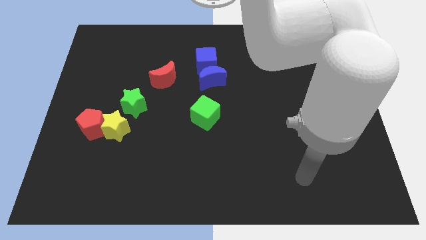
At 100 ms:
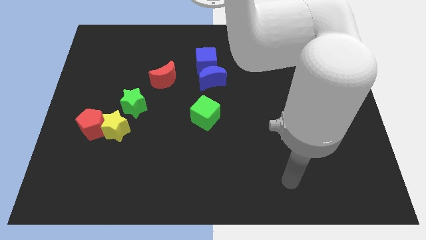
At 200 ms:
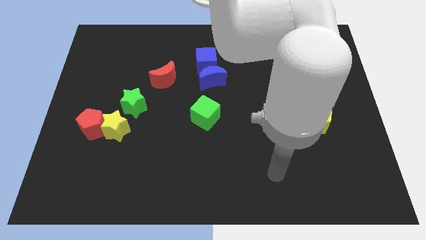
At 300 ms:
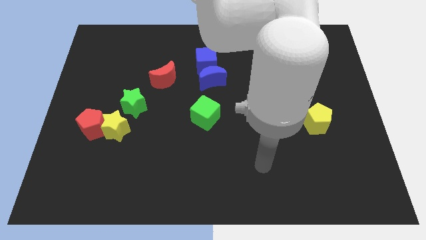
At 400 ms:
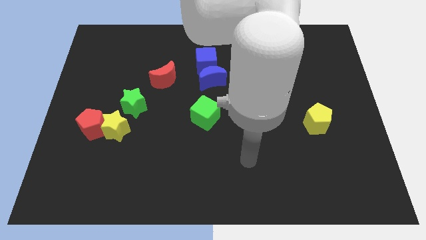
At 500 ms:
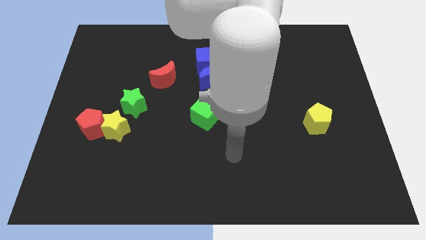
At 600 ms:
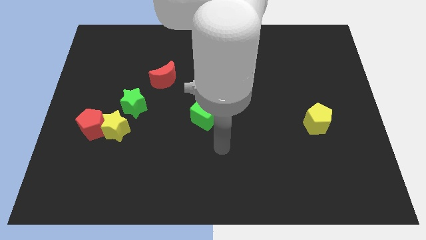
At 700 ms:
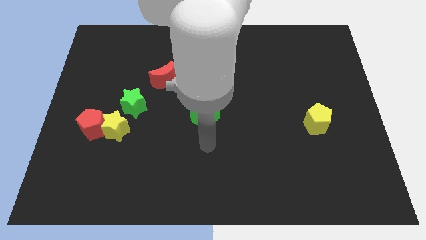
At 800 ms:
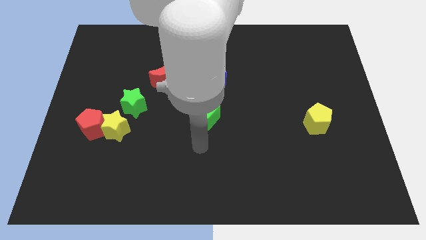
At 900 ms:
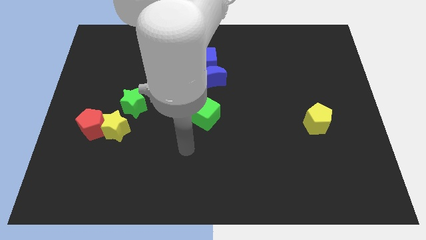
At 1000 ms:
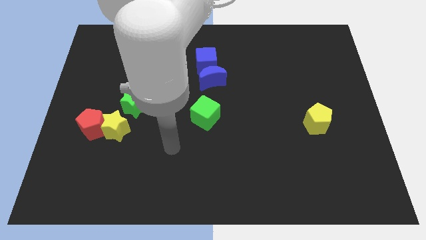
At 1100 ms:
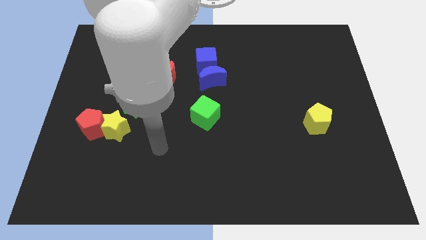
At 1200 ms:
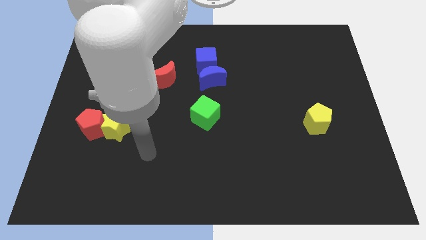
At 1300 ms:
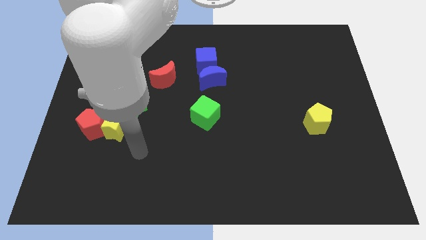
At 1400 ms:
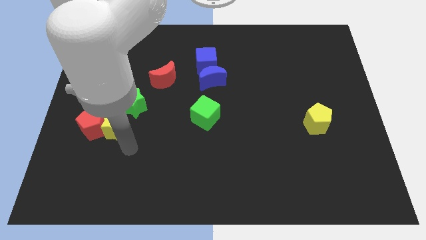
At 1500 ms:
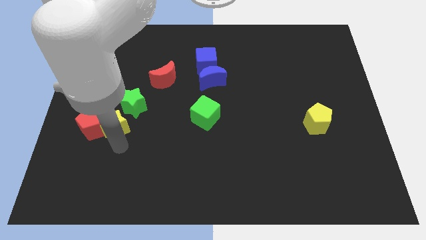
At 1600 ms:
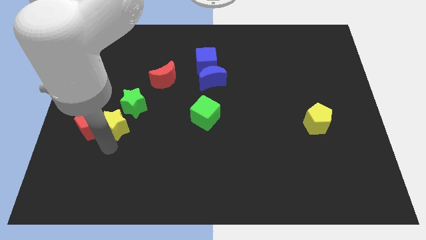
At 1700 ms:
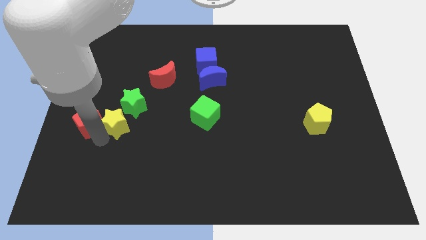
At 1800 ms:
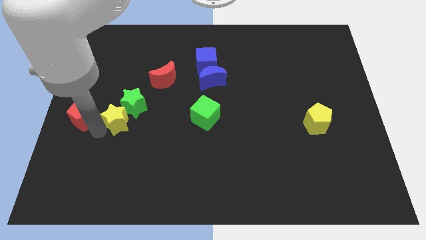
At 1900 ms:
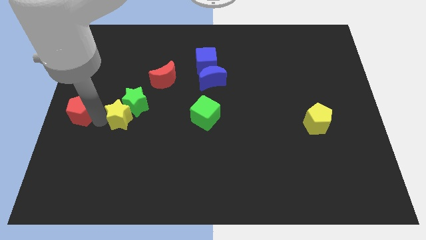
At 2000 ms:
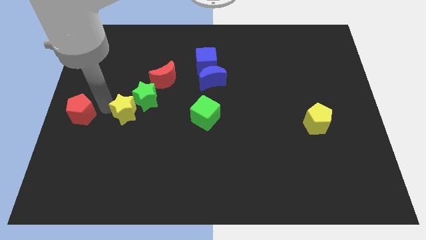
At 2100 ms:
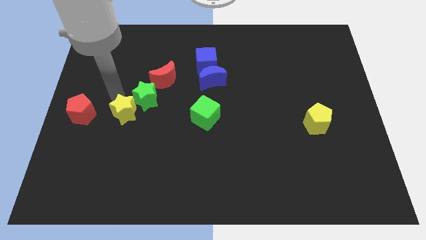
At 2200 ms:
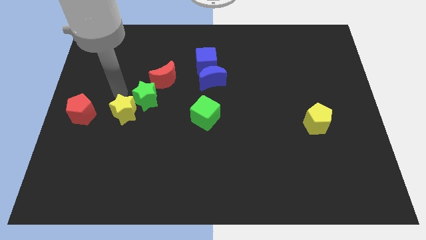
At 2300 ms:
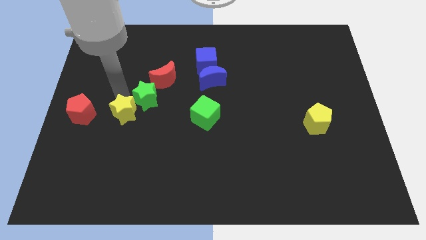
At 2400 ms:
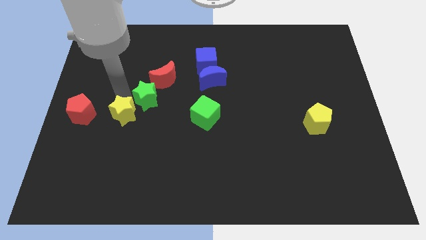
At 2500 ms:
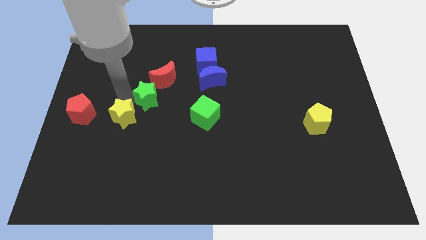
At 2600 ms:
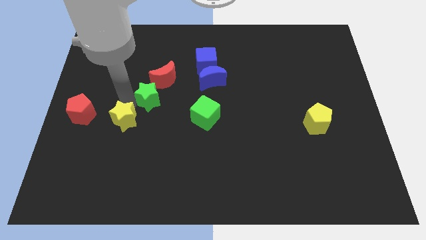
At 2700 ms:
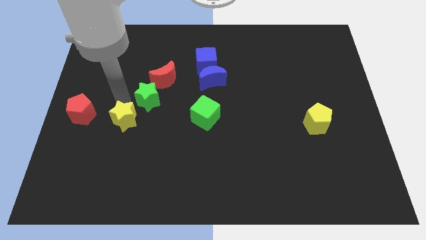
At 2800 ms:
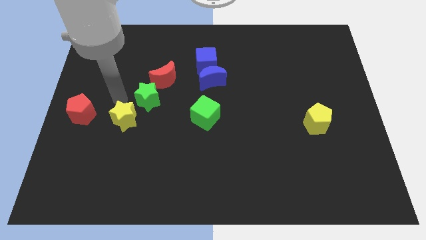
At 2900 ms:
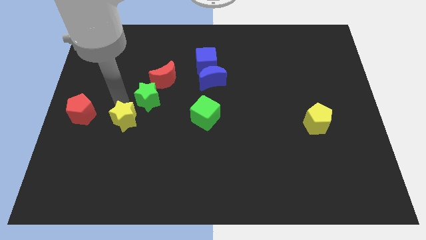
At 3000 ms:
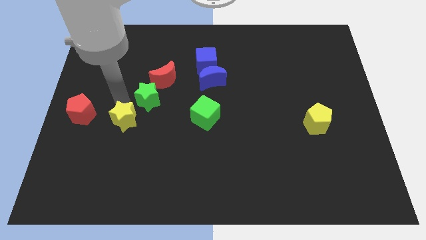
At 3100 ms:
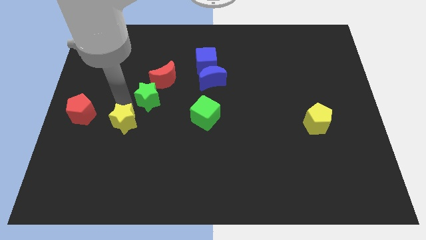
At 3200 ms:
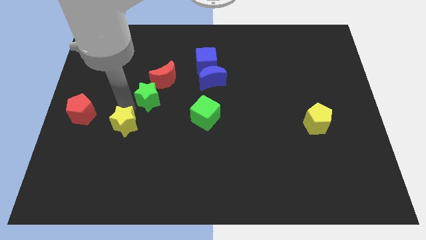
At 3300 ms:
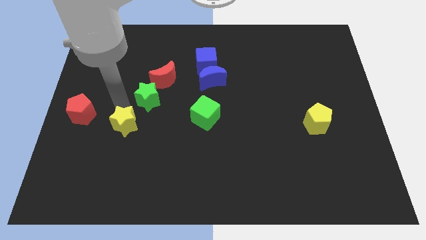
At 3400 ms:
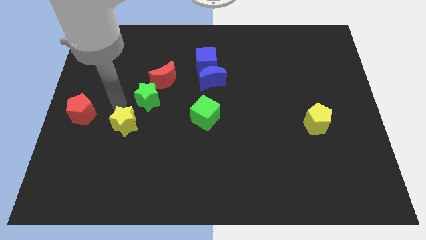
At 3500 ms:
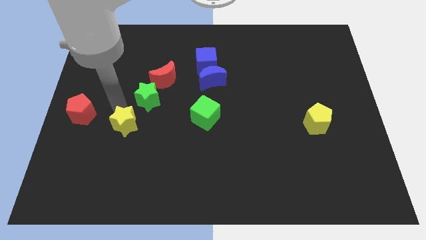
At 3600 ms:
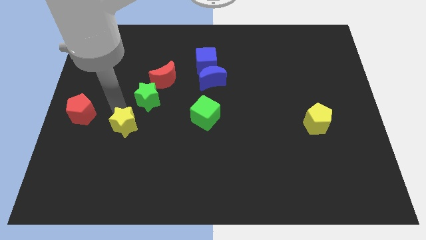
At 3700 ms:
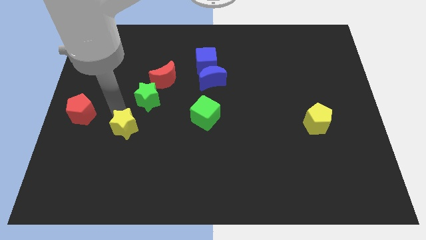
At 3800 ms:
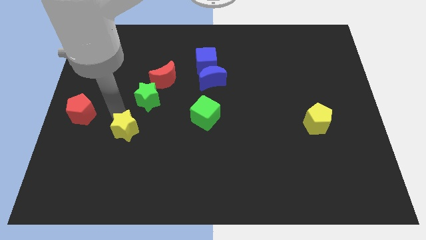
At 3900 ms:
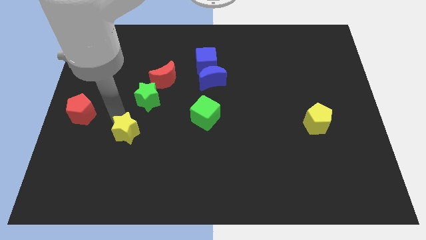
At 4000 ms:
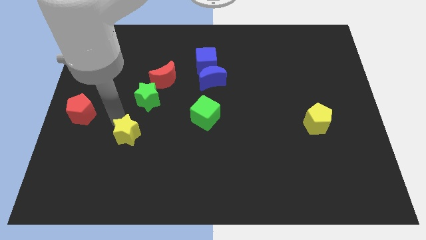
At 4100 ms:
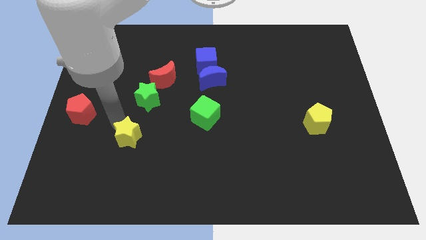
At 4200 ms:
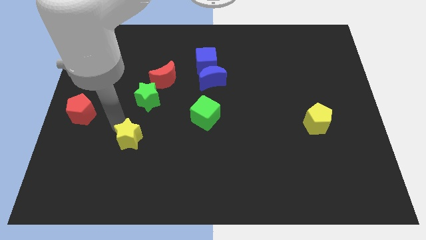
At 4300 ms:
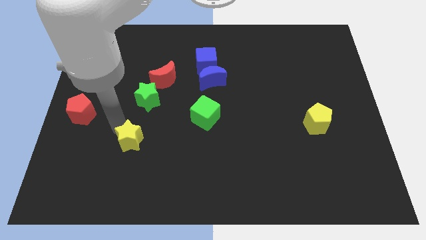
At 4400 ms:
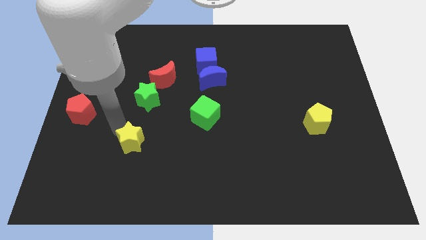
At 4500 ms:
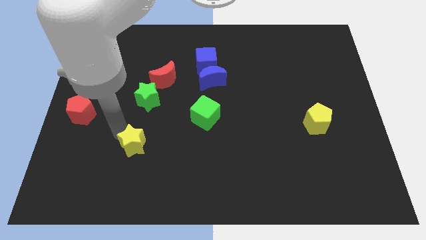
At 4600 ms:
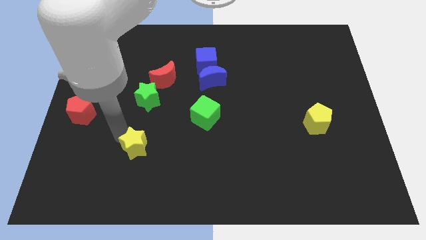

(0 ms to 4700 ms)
slightly slide the yellow star downwards and right diagonally

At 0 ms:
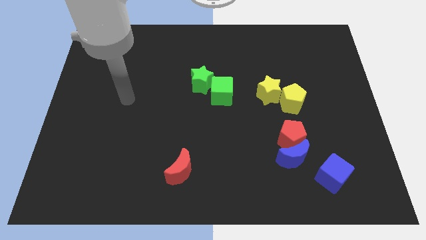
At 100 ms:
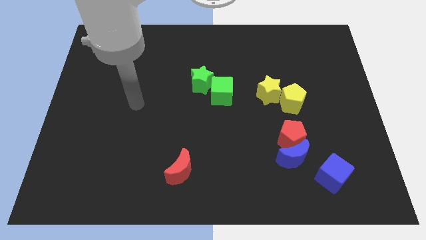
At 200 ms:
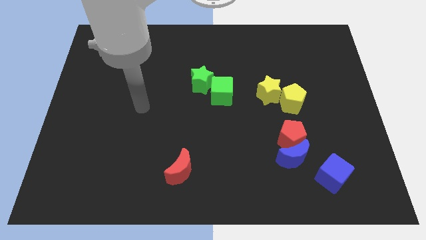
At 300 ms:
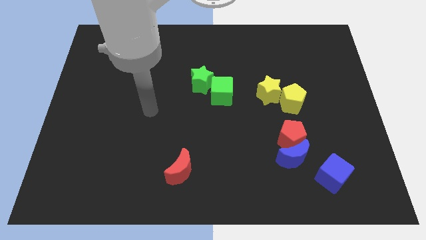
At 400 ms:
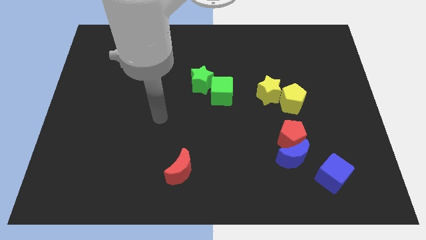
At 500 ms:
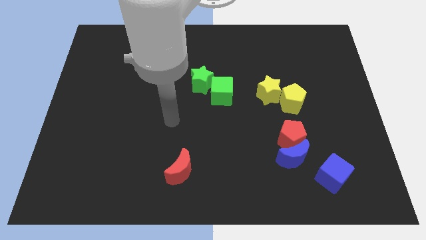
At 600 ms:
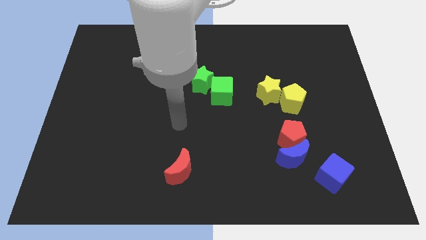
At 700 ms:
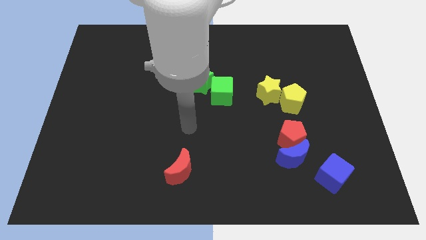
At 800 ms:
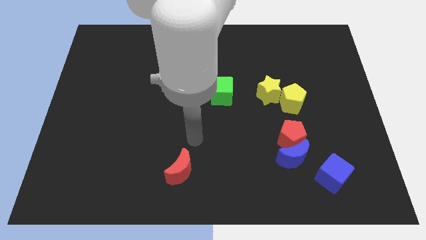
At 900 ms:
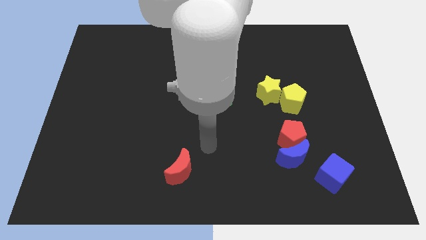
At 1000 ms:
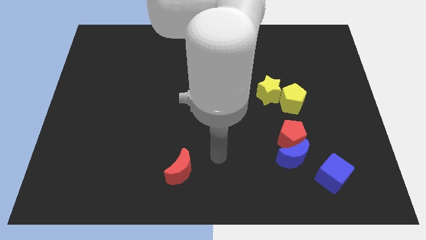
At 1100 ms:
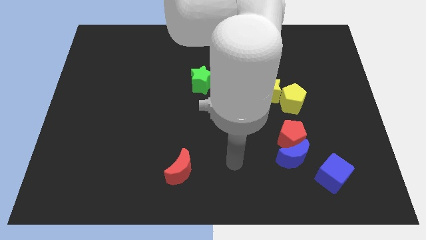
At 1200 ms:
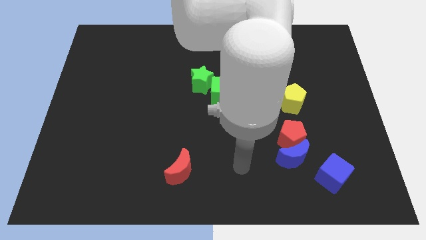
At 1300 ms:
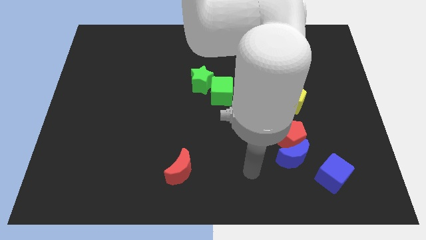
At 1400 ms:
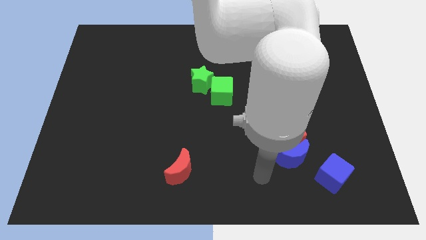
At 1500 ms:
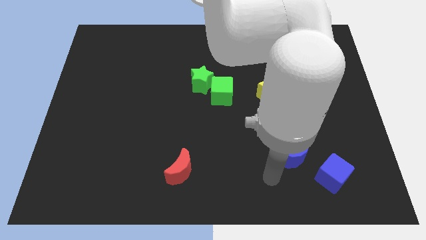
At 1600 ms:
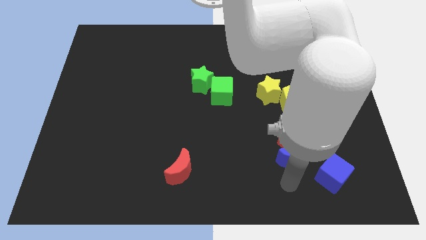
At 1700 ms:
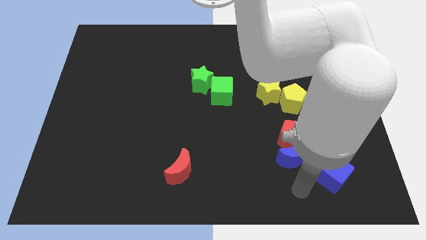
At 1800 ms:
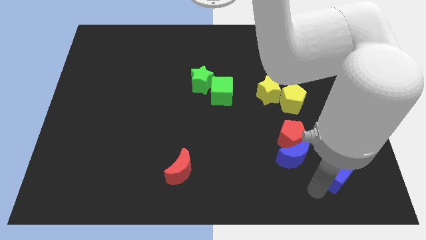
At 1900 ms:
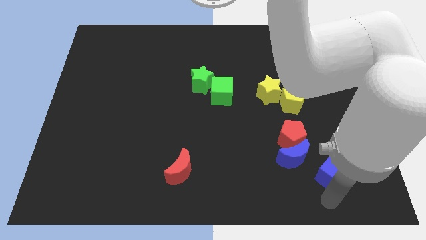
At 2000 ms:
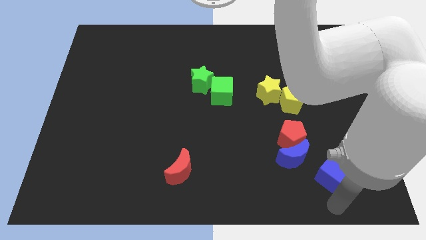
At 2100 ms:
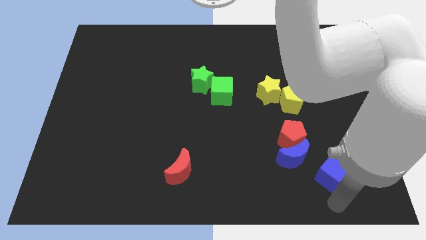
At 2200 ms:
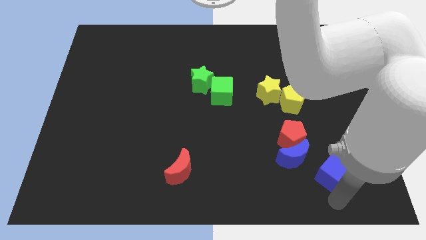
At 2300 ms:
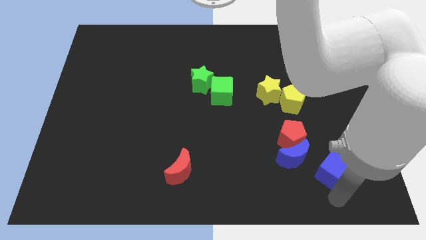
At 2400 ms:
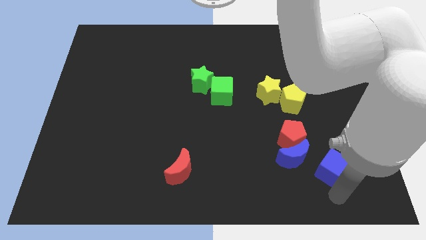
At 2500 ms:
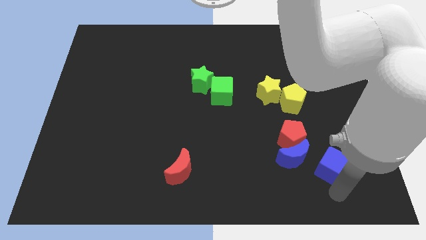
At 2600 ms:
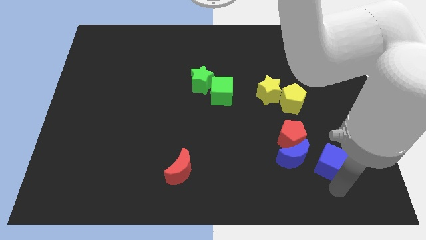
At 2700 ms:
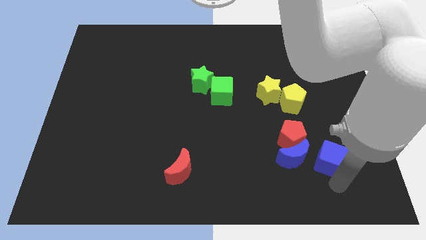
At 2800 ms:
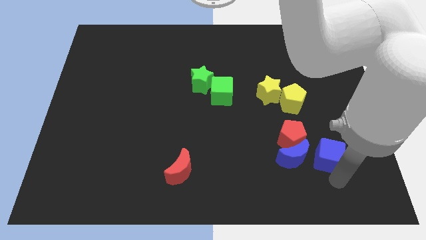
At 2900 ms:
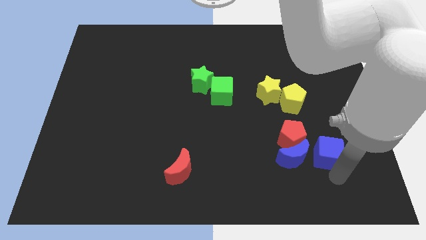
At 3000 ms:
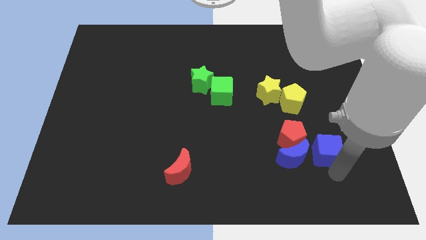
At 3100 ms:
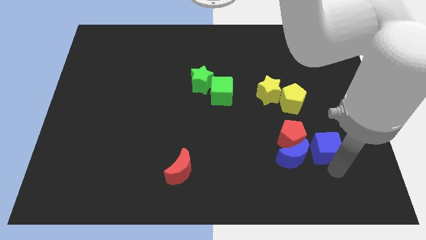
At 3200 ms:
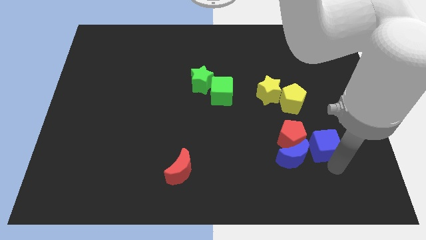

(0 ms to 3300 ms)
slide the blue cube somewhat up
